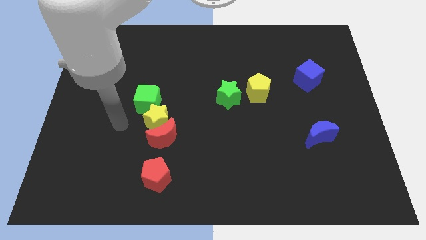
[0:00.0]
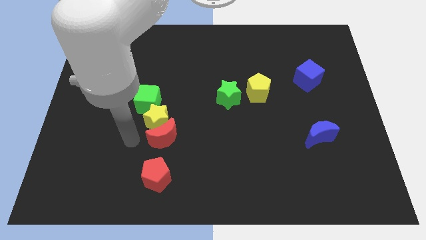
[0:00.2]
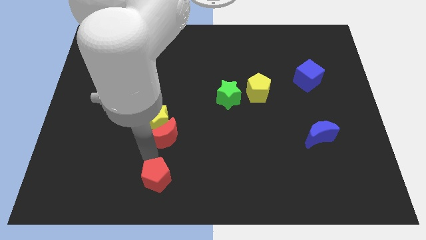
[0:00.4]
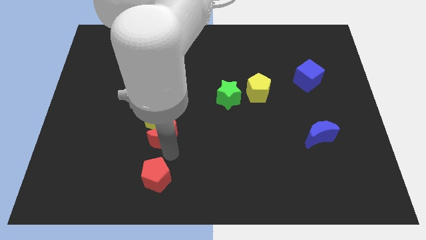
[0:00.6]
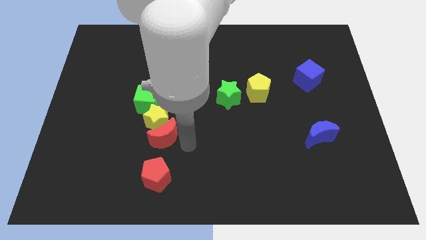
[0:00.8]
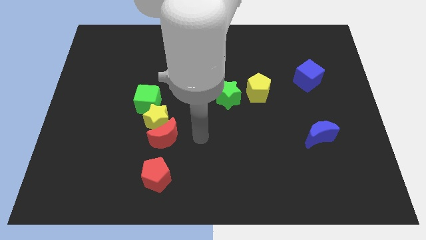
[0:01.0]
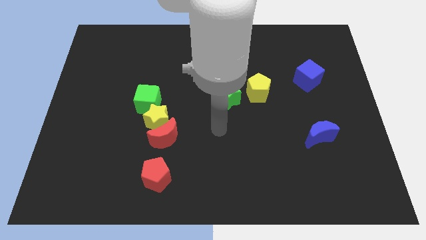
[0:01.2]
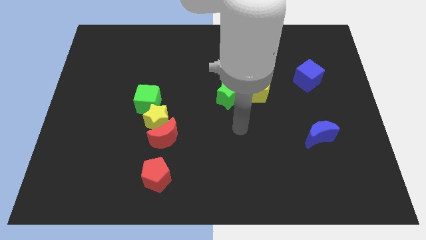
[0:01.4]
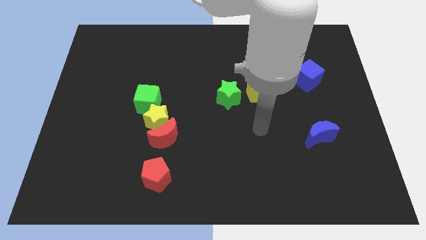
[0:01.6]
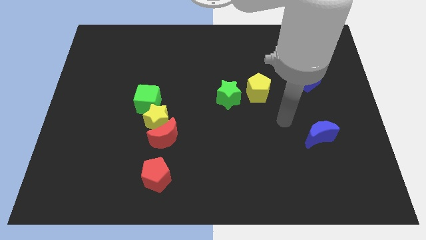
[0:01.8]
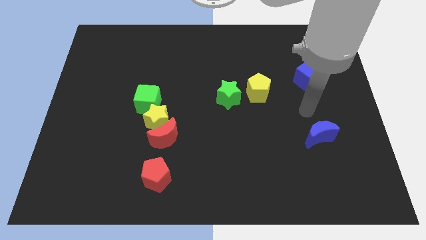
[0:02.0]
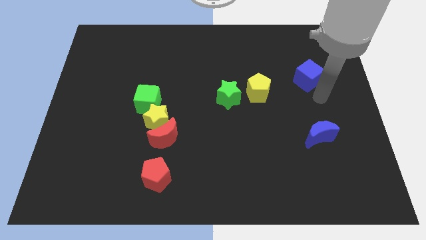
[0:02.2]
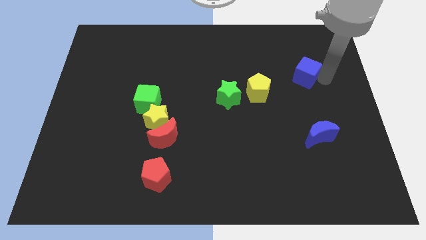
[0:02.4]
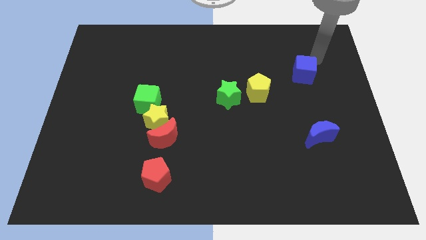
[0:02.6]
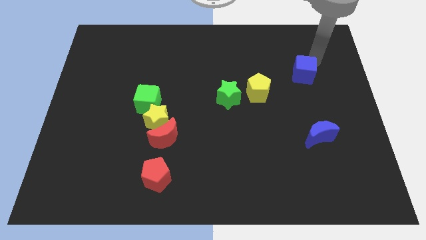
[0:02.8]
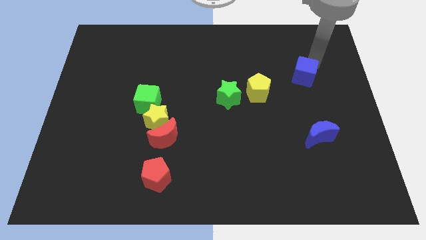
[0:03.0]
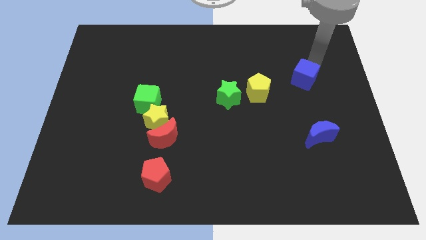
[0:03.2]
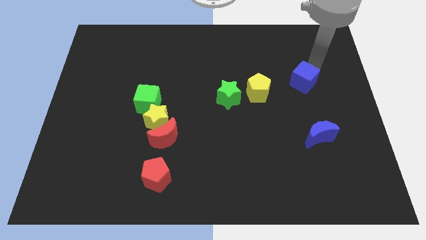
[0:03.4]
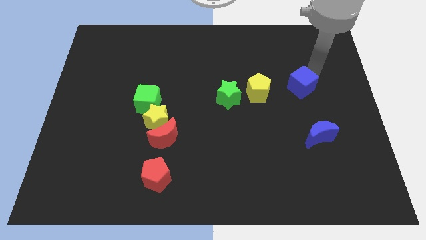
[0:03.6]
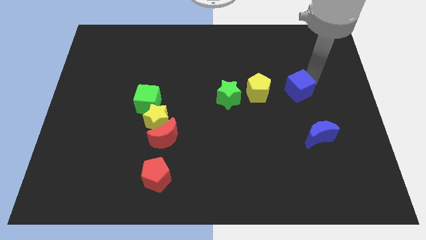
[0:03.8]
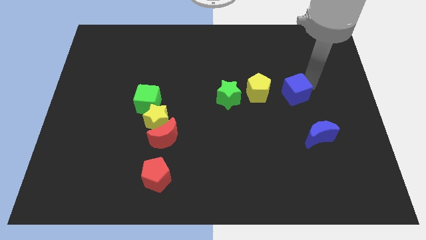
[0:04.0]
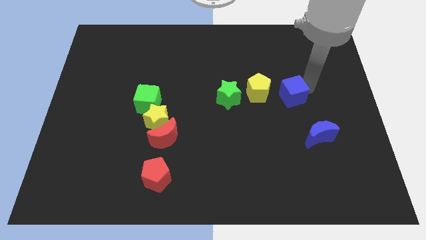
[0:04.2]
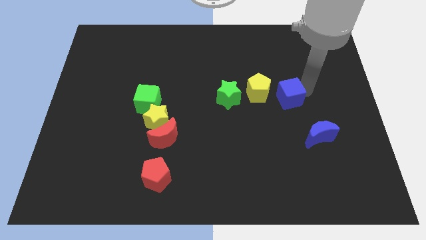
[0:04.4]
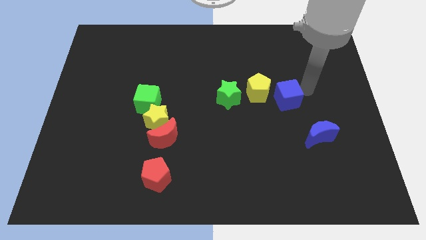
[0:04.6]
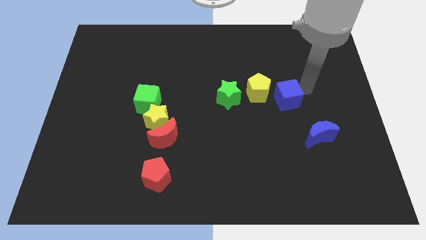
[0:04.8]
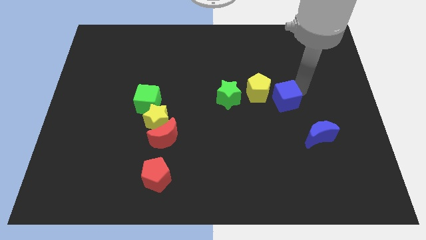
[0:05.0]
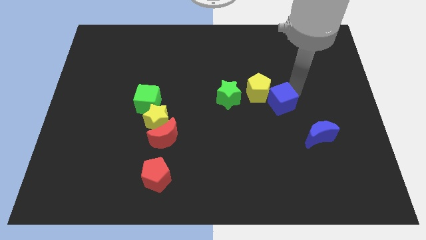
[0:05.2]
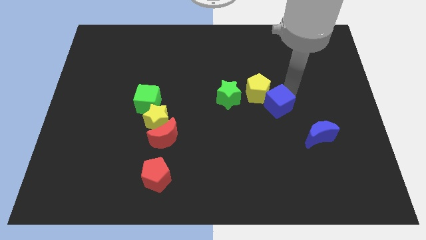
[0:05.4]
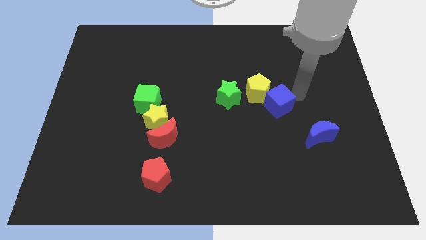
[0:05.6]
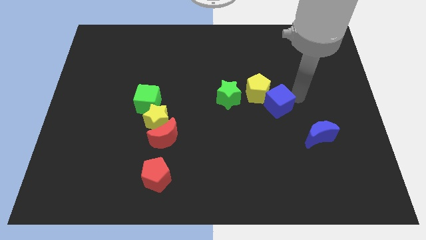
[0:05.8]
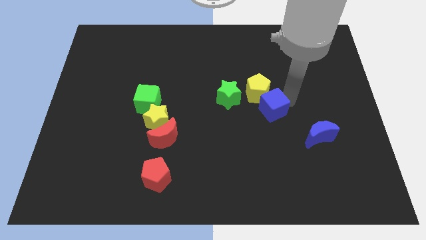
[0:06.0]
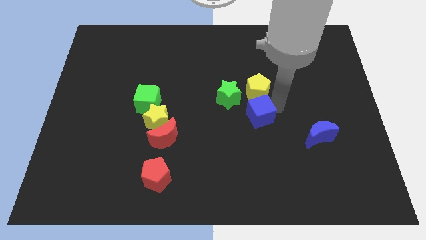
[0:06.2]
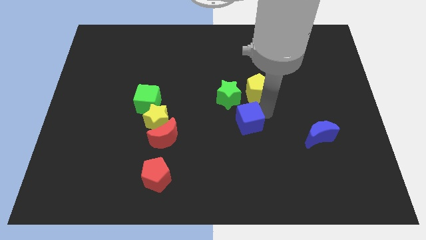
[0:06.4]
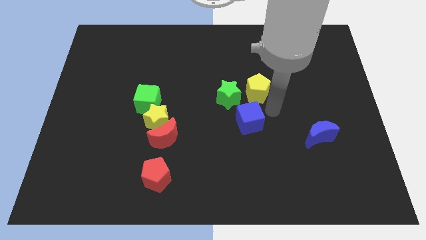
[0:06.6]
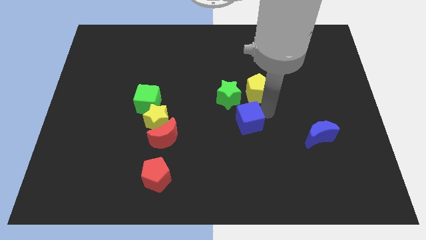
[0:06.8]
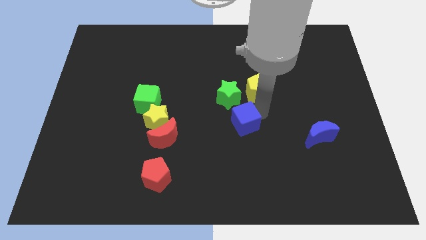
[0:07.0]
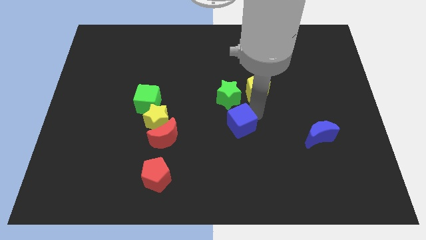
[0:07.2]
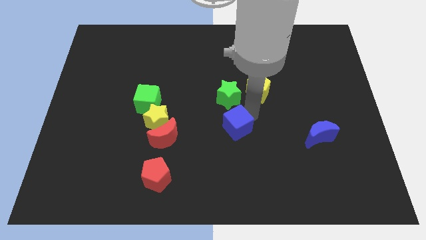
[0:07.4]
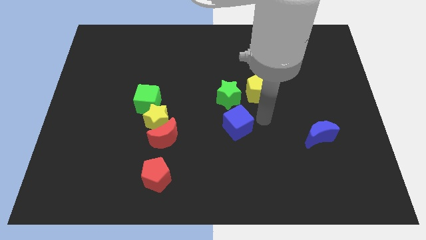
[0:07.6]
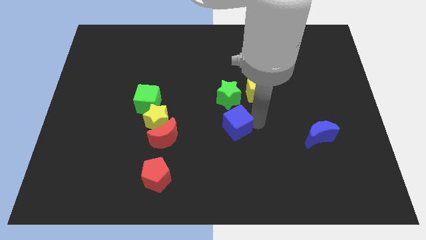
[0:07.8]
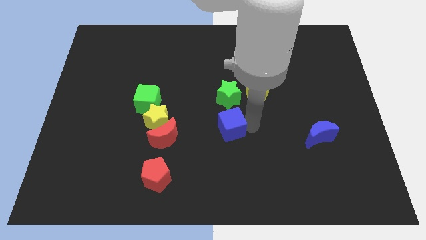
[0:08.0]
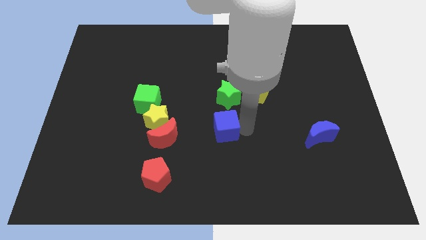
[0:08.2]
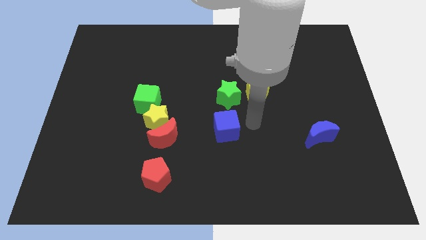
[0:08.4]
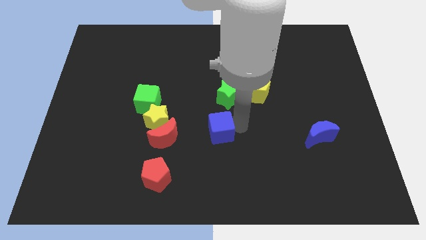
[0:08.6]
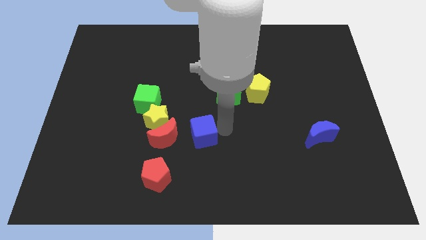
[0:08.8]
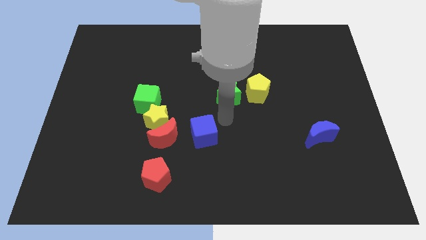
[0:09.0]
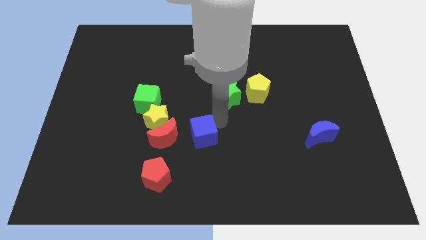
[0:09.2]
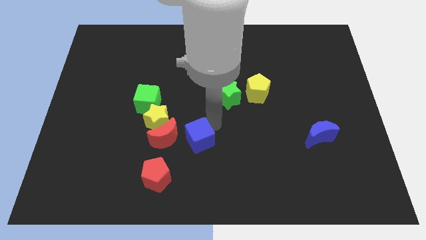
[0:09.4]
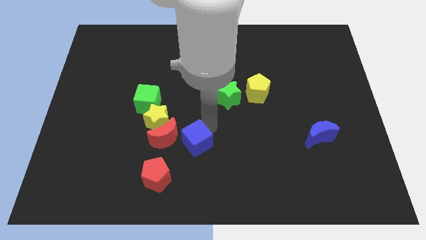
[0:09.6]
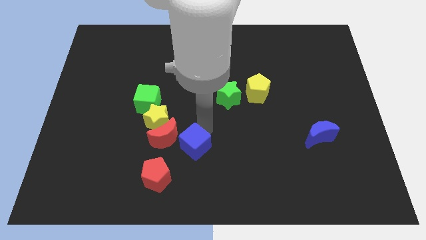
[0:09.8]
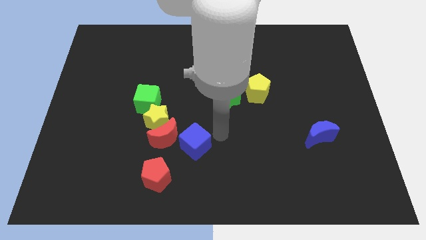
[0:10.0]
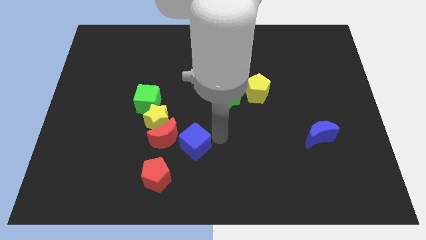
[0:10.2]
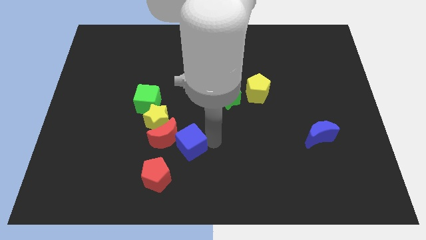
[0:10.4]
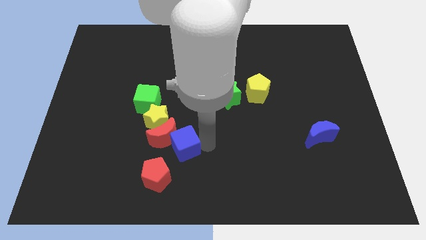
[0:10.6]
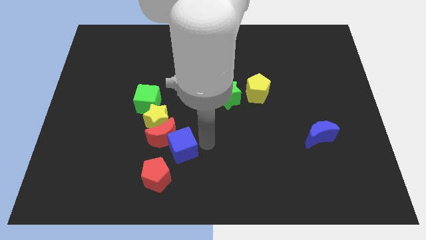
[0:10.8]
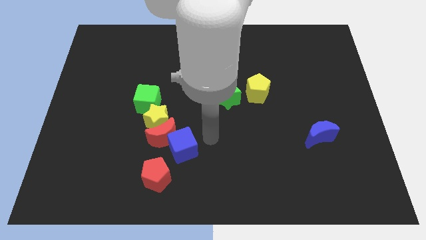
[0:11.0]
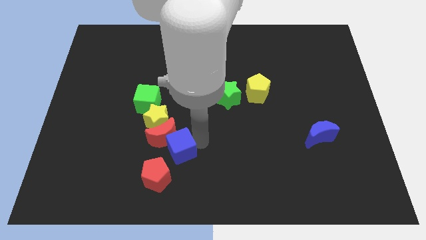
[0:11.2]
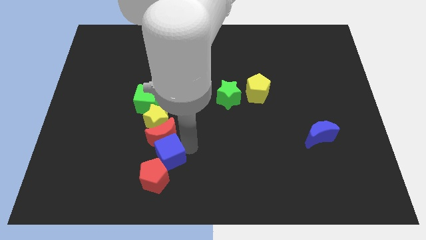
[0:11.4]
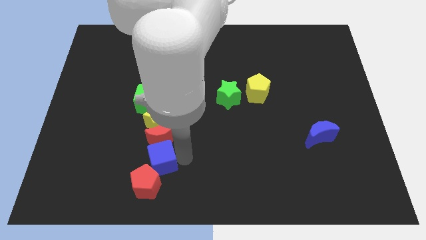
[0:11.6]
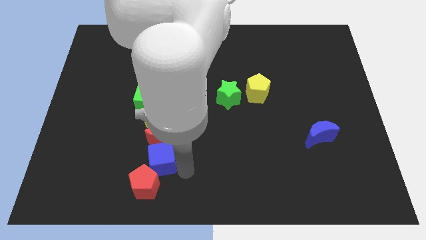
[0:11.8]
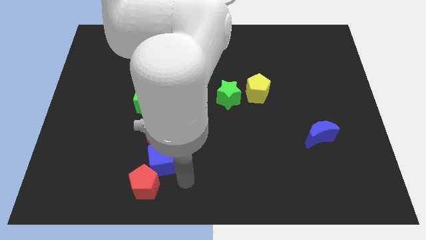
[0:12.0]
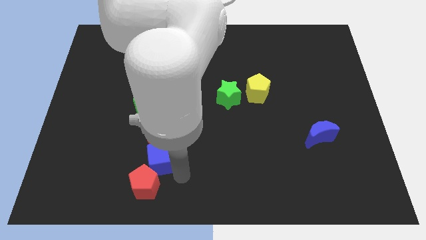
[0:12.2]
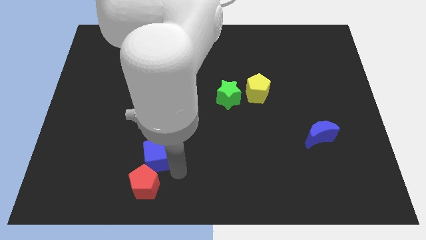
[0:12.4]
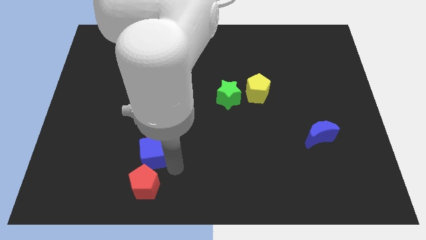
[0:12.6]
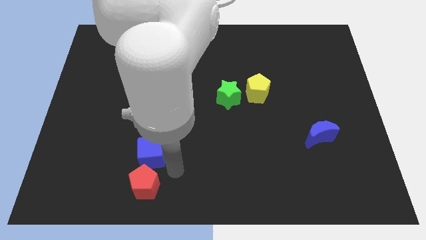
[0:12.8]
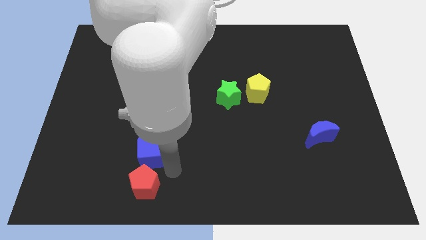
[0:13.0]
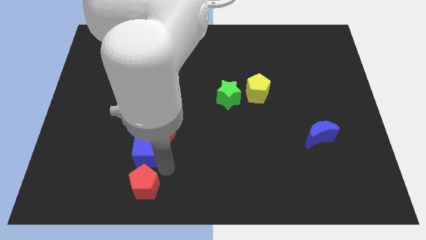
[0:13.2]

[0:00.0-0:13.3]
put the blue cube to the bottom left of the yellow star
